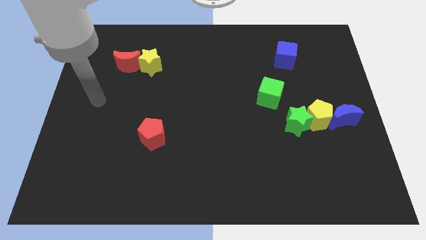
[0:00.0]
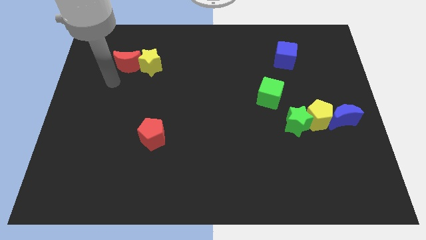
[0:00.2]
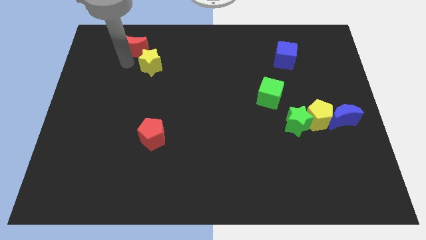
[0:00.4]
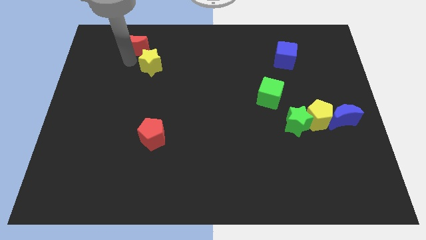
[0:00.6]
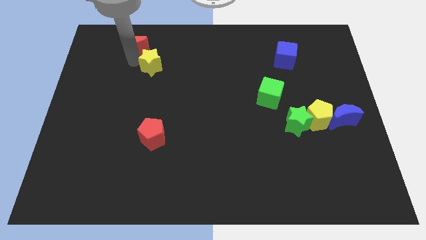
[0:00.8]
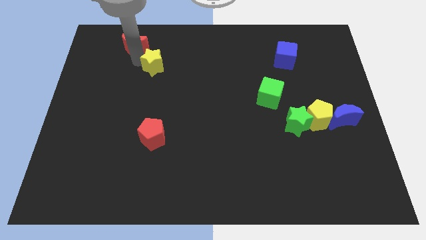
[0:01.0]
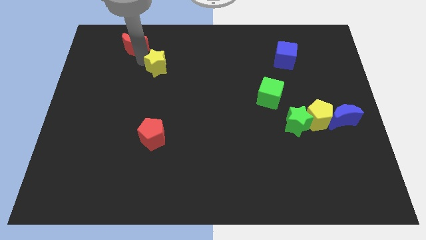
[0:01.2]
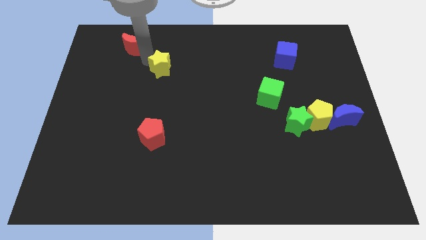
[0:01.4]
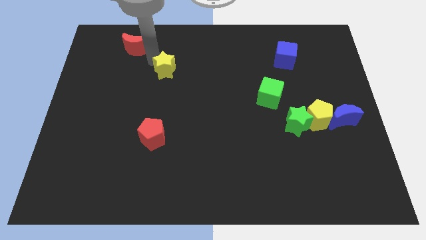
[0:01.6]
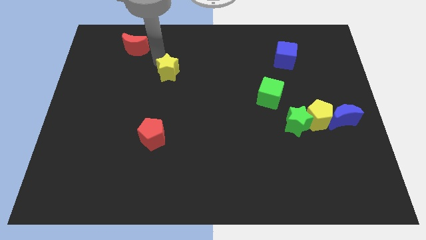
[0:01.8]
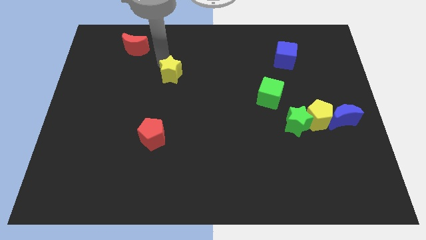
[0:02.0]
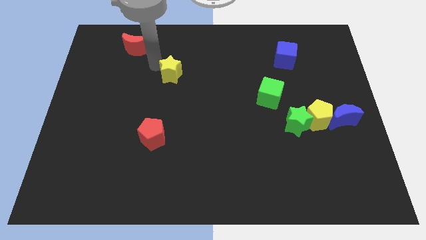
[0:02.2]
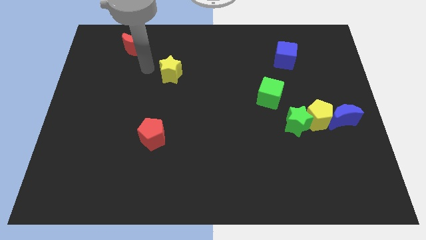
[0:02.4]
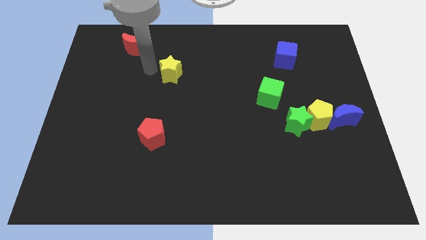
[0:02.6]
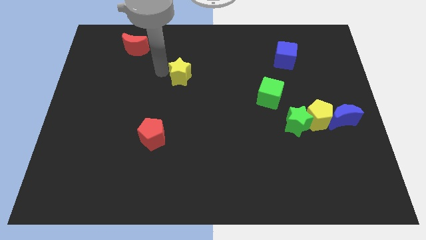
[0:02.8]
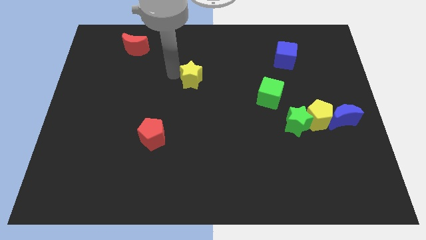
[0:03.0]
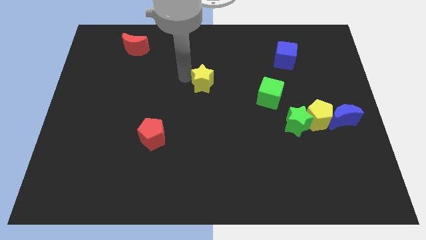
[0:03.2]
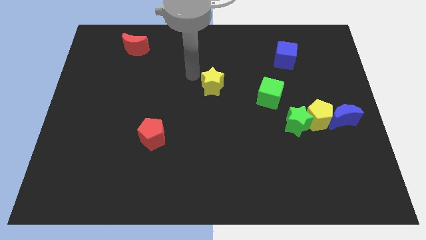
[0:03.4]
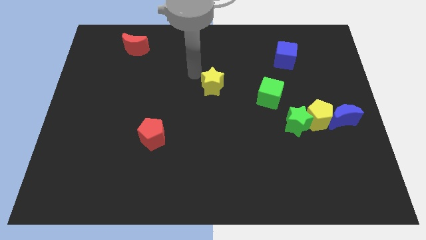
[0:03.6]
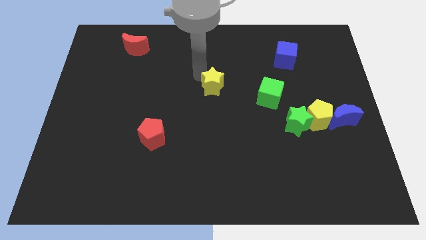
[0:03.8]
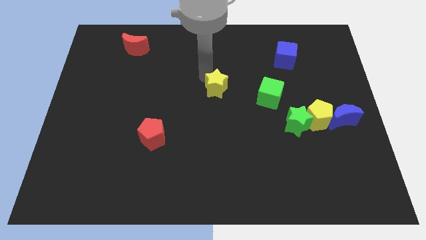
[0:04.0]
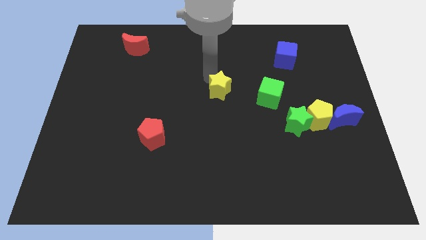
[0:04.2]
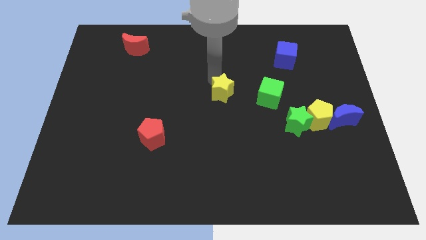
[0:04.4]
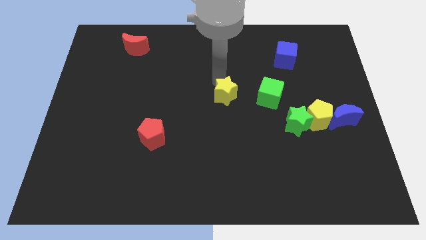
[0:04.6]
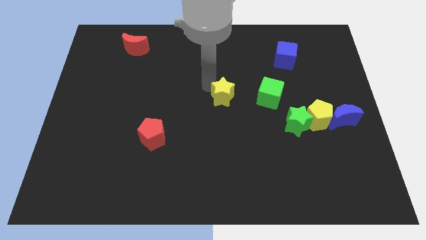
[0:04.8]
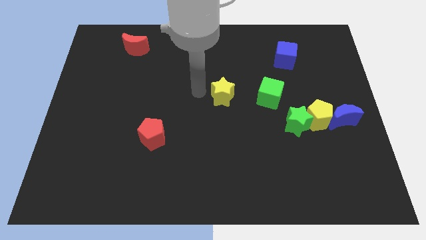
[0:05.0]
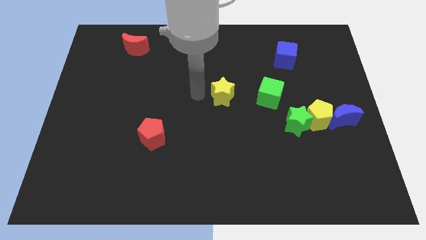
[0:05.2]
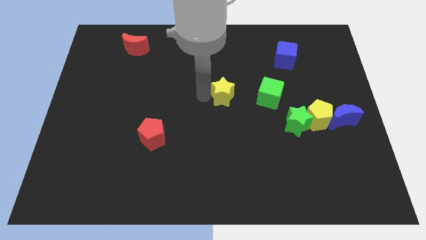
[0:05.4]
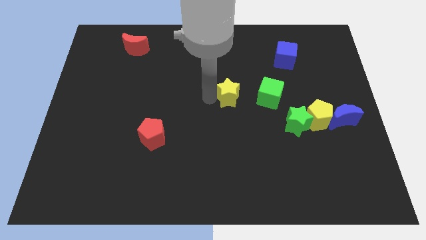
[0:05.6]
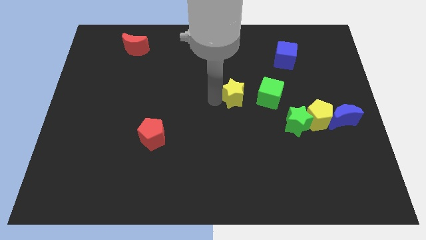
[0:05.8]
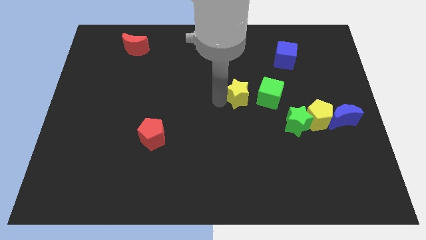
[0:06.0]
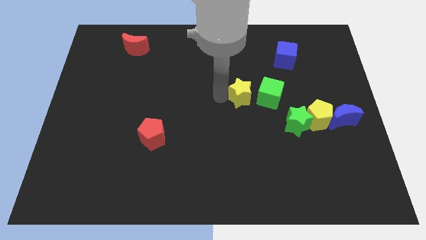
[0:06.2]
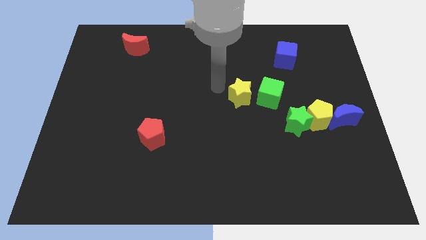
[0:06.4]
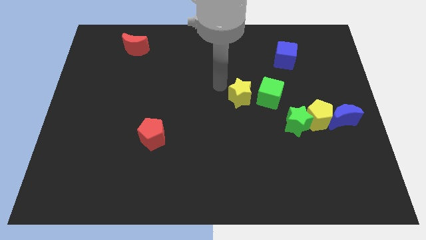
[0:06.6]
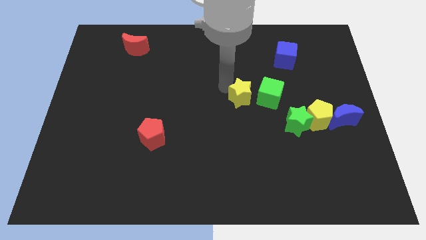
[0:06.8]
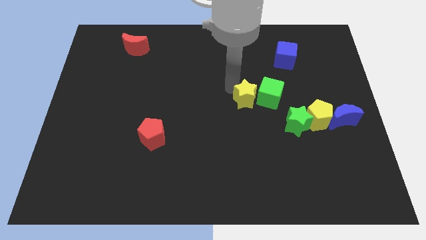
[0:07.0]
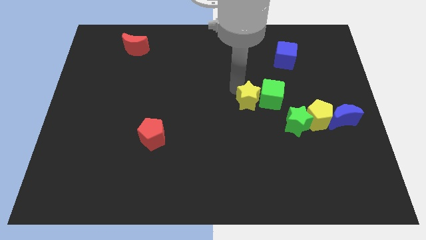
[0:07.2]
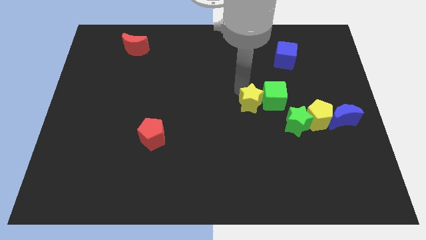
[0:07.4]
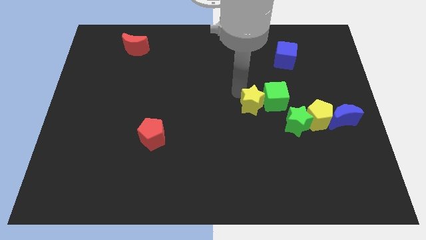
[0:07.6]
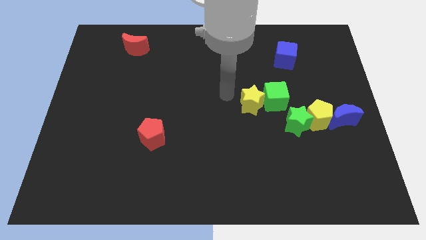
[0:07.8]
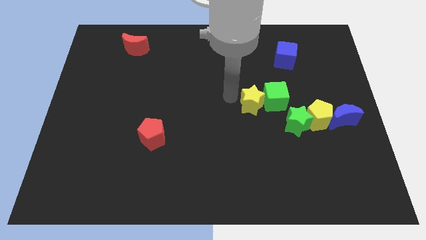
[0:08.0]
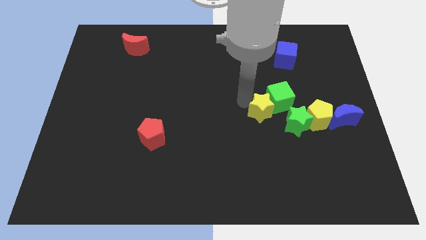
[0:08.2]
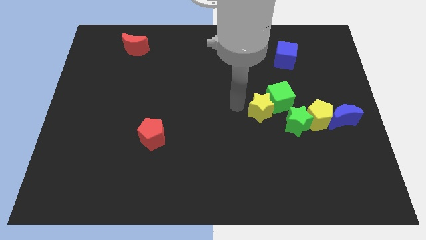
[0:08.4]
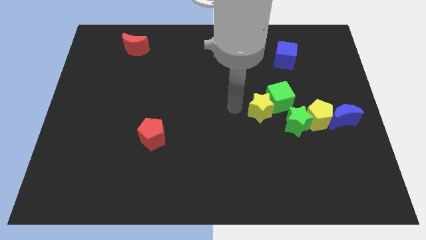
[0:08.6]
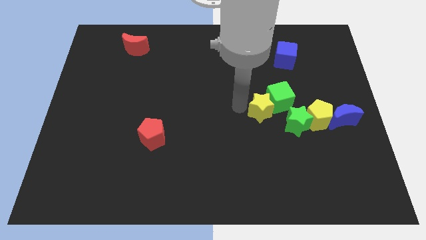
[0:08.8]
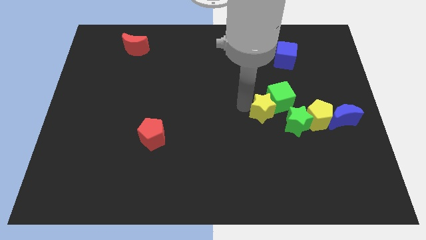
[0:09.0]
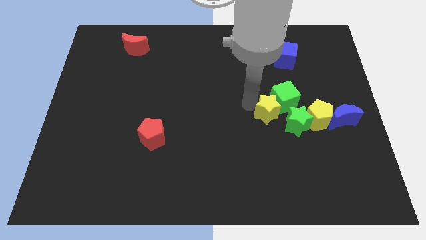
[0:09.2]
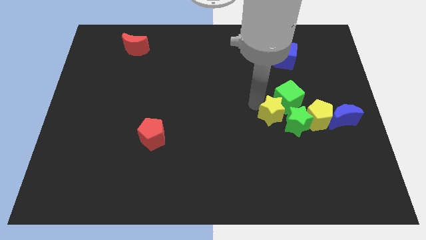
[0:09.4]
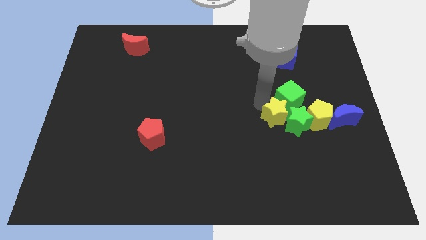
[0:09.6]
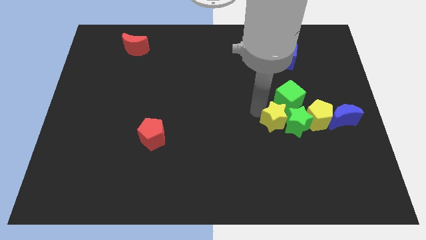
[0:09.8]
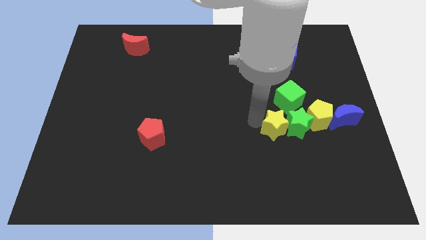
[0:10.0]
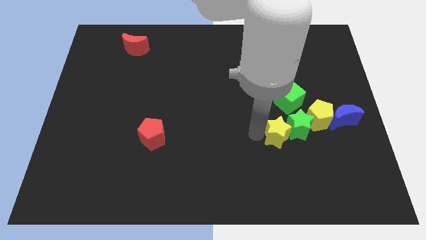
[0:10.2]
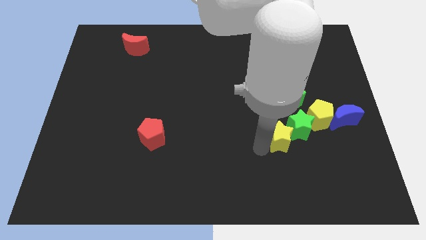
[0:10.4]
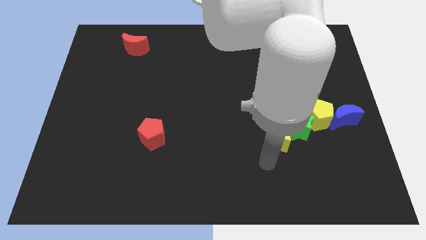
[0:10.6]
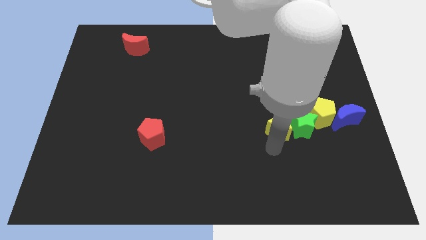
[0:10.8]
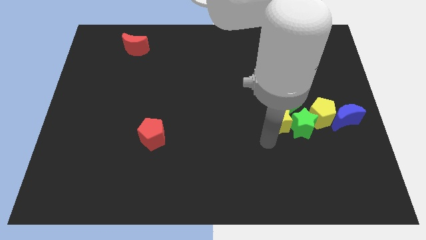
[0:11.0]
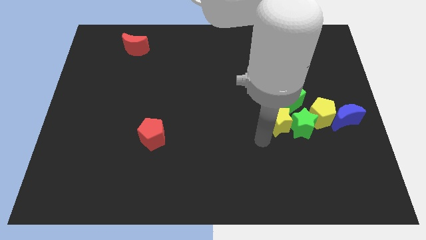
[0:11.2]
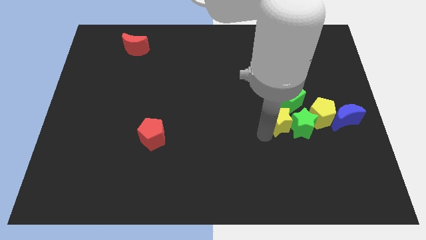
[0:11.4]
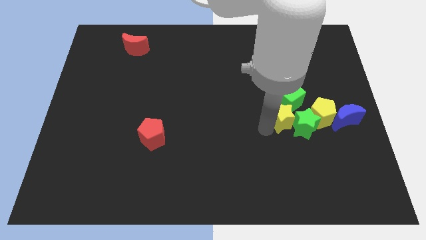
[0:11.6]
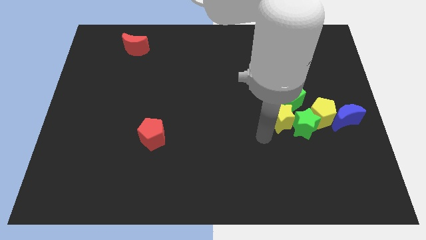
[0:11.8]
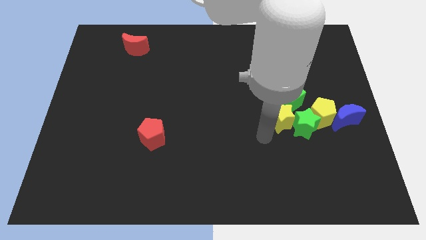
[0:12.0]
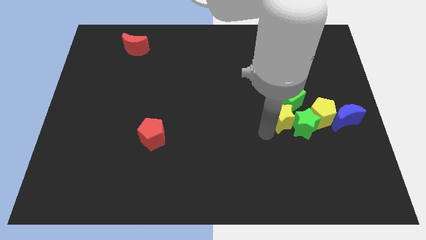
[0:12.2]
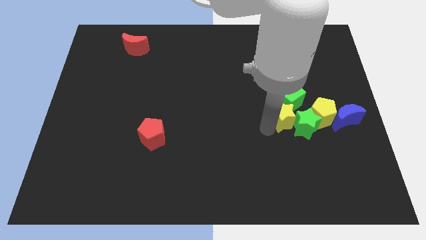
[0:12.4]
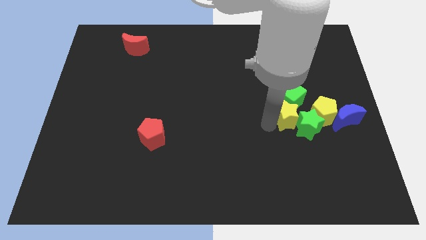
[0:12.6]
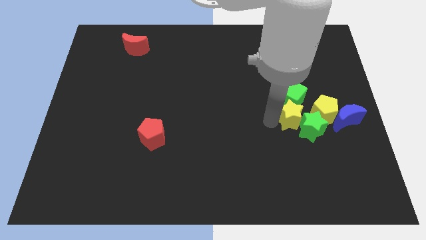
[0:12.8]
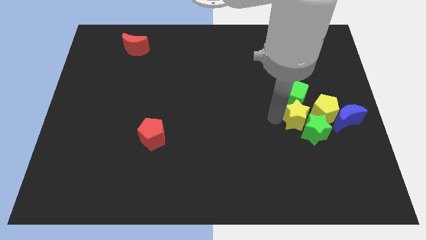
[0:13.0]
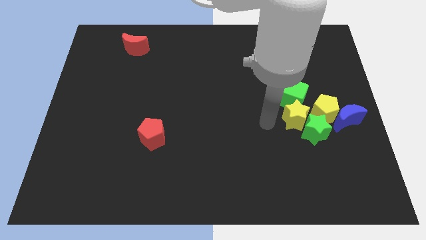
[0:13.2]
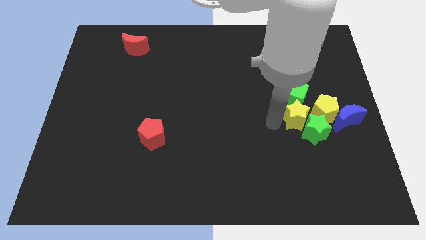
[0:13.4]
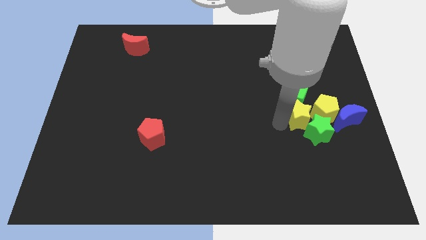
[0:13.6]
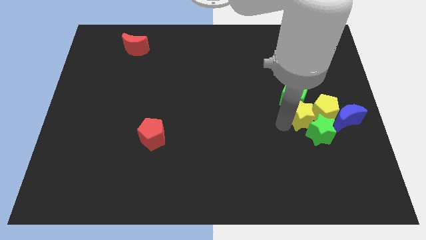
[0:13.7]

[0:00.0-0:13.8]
slide the yellow star towards the yellow pentagon

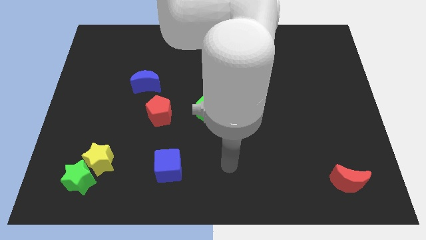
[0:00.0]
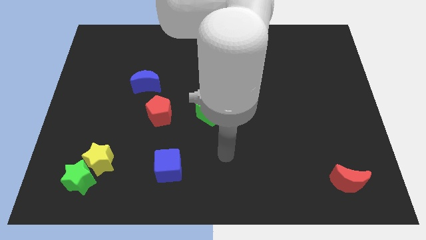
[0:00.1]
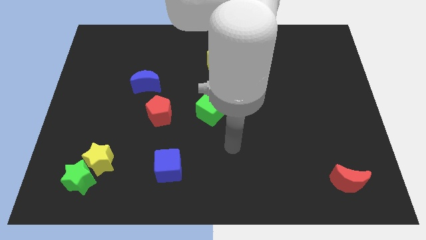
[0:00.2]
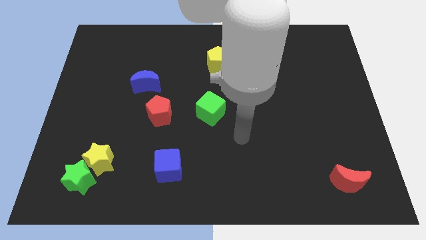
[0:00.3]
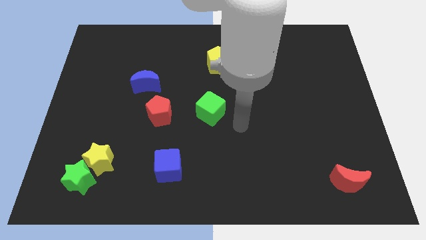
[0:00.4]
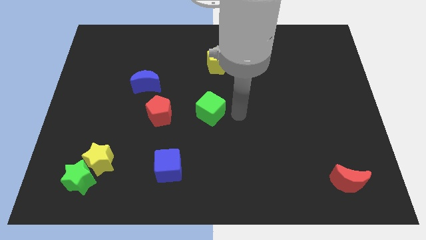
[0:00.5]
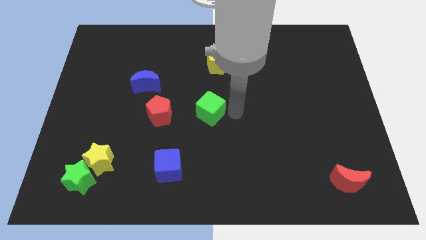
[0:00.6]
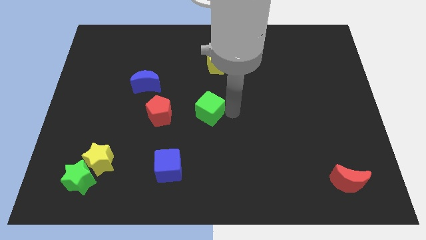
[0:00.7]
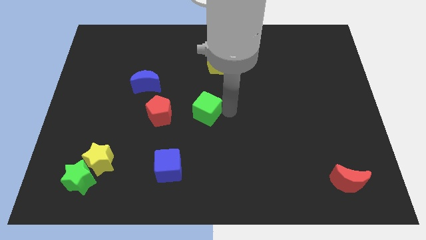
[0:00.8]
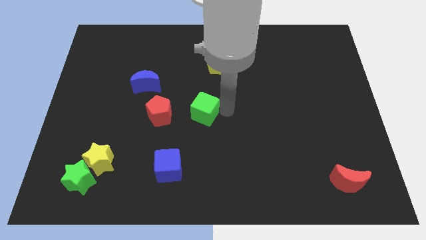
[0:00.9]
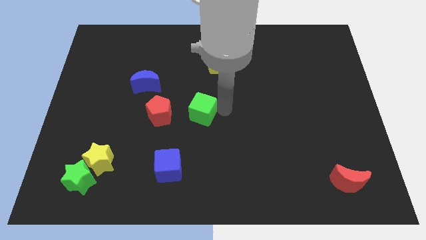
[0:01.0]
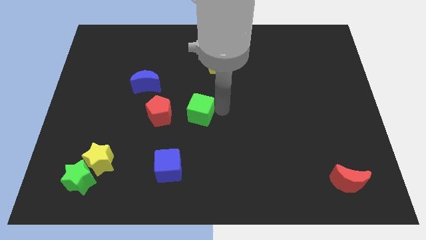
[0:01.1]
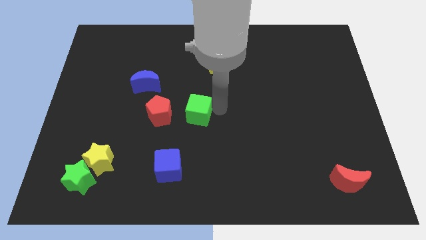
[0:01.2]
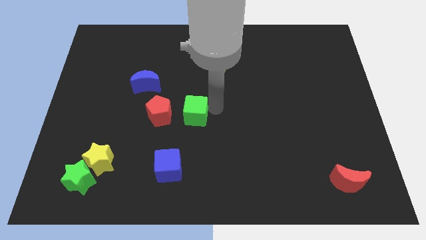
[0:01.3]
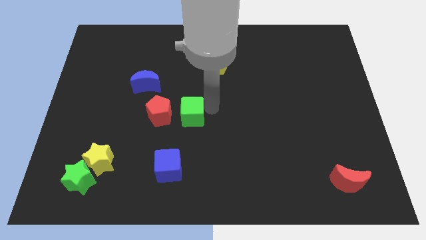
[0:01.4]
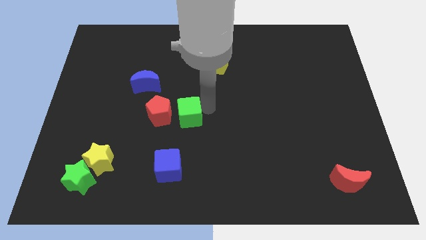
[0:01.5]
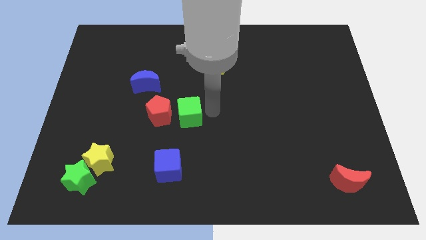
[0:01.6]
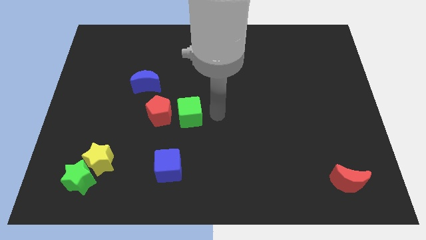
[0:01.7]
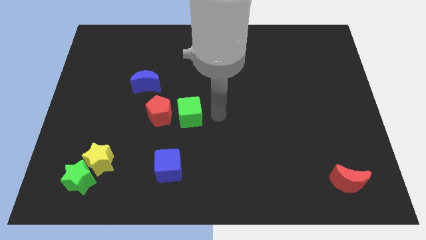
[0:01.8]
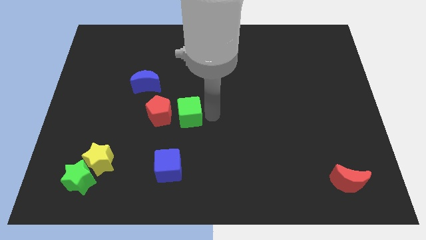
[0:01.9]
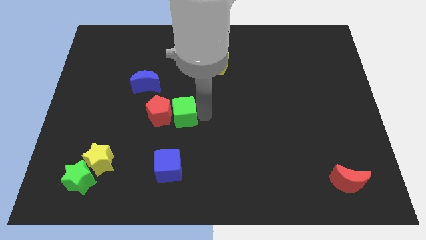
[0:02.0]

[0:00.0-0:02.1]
put the green cube to the red pentagon
